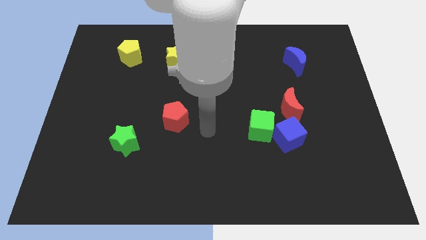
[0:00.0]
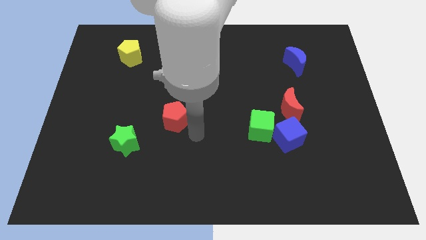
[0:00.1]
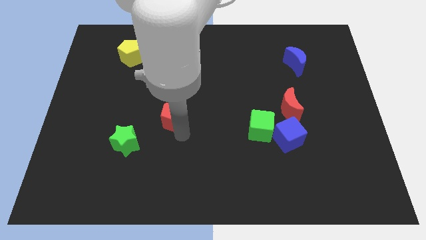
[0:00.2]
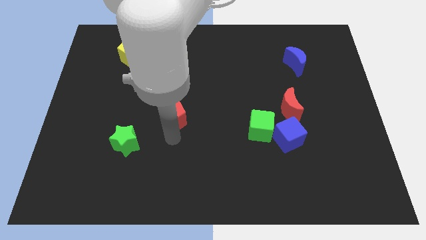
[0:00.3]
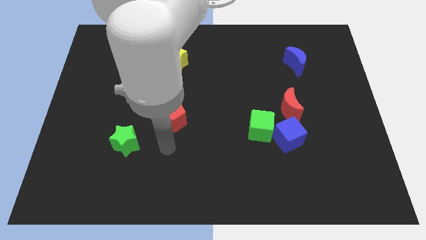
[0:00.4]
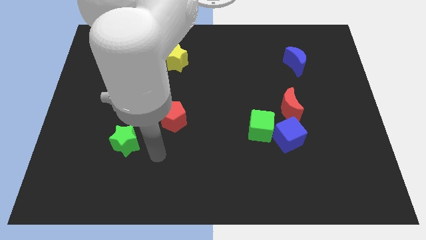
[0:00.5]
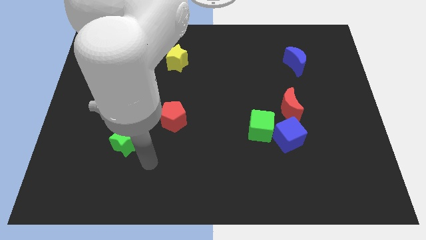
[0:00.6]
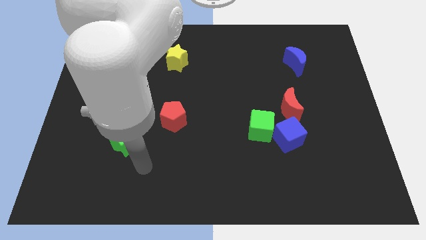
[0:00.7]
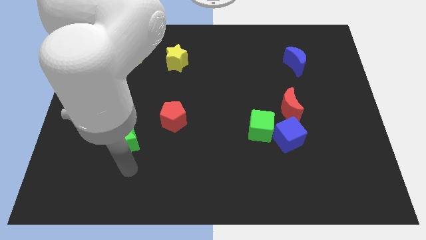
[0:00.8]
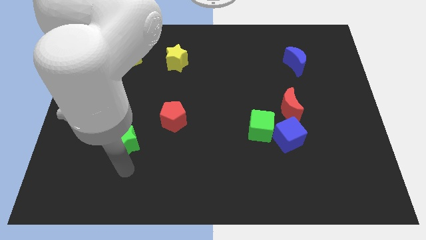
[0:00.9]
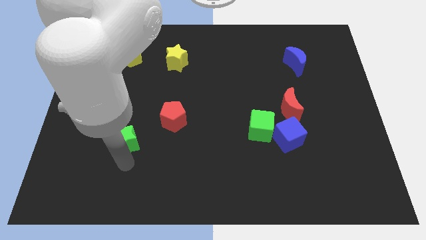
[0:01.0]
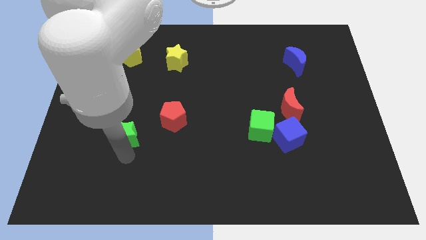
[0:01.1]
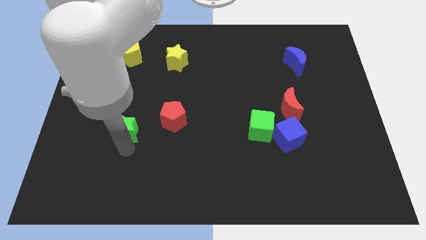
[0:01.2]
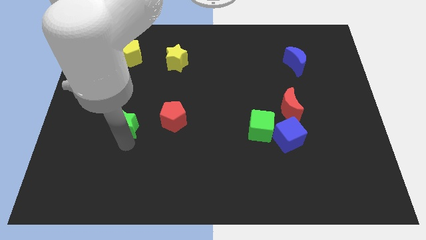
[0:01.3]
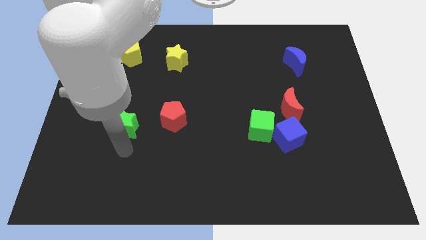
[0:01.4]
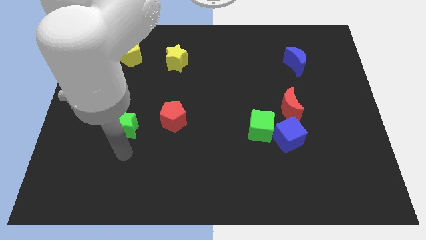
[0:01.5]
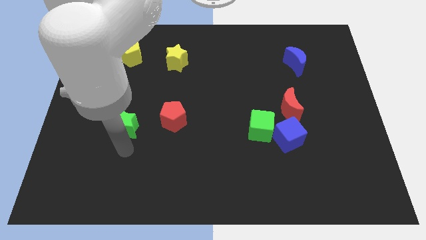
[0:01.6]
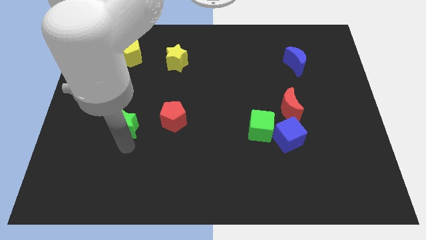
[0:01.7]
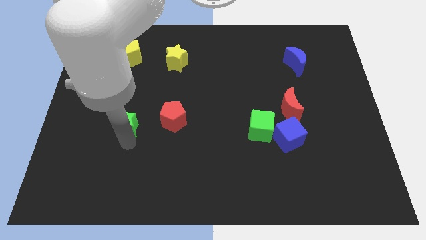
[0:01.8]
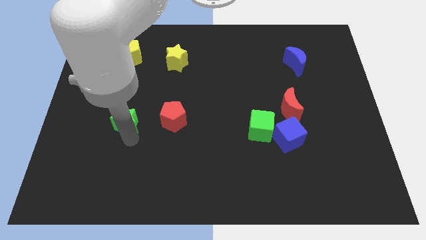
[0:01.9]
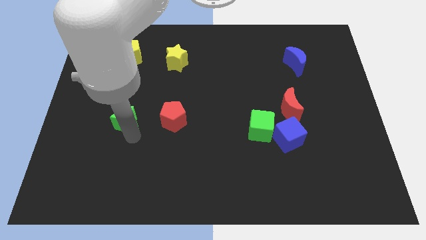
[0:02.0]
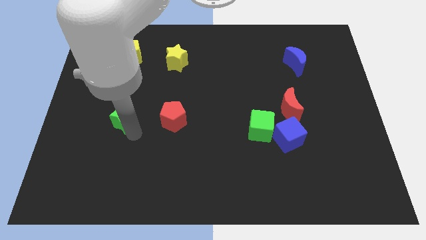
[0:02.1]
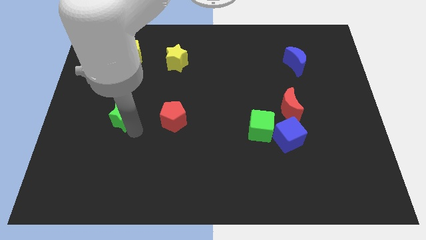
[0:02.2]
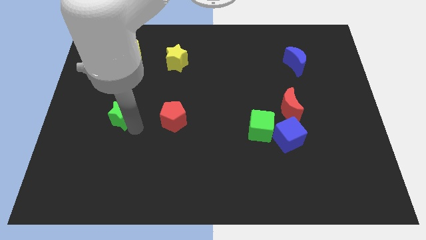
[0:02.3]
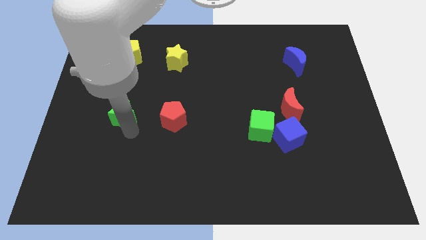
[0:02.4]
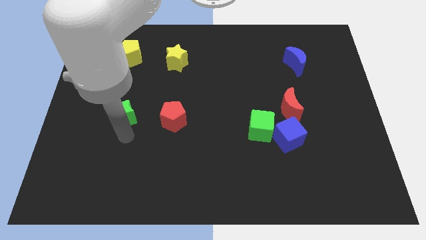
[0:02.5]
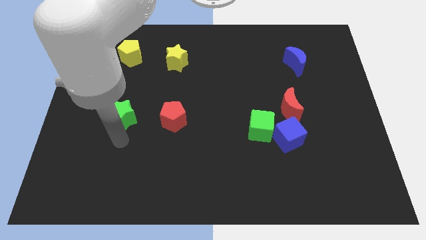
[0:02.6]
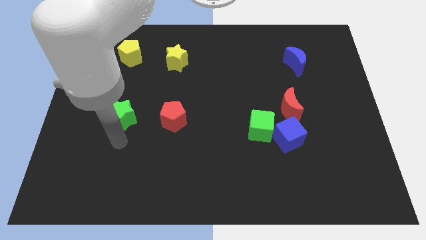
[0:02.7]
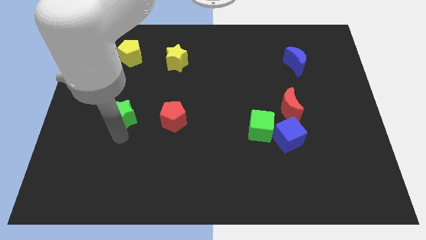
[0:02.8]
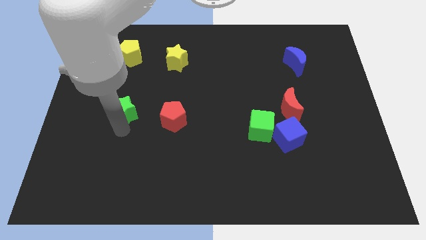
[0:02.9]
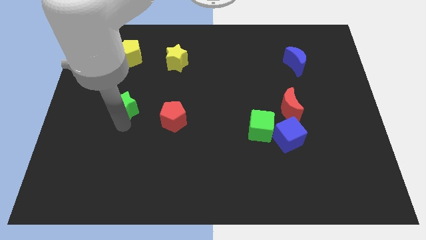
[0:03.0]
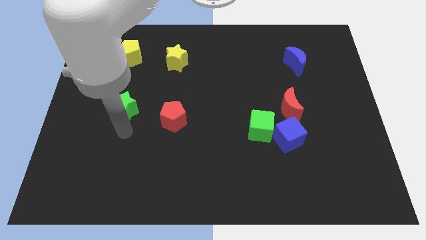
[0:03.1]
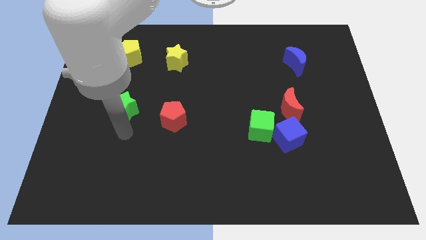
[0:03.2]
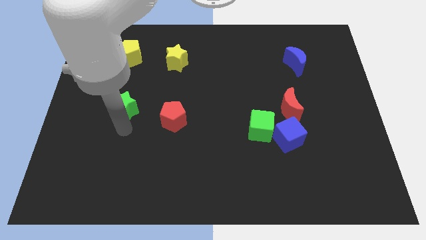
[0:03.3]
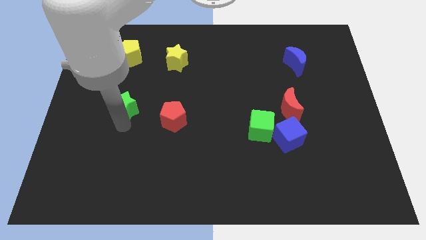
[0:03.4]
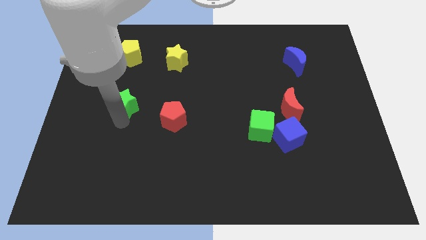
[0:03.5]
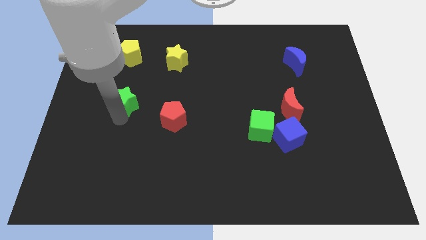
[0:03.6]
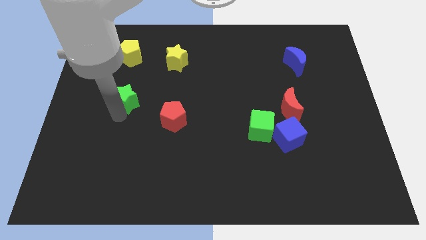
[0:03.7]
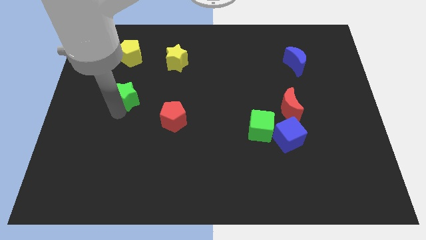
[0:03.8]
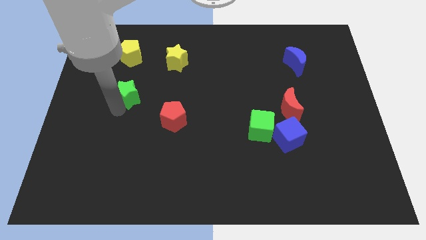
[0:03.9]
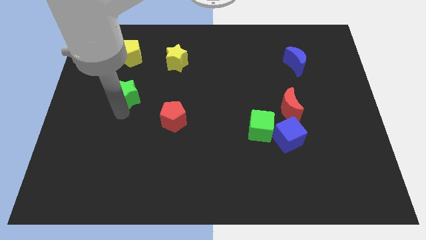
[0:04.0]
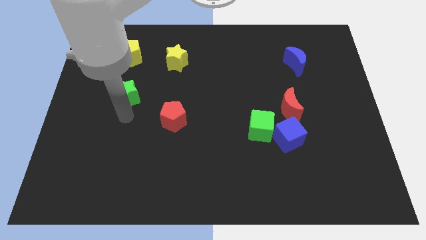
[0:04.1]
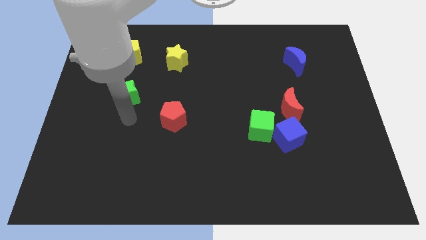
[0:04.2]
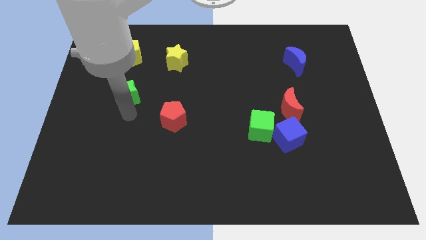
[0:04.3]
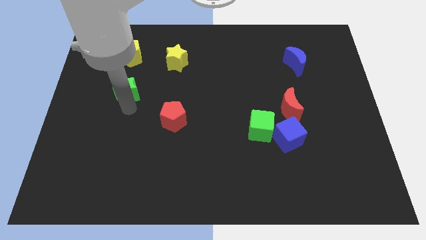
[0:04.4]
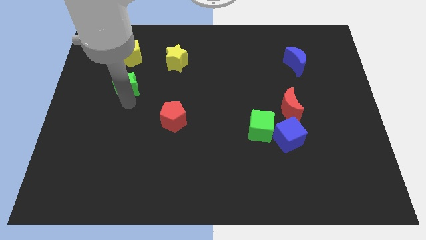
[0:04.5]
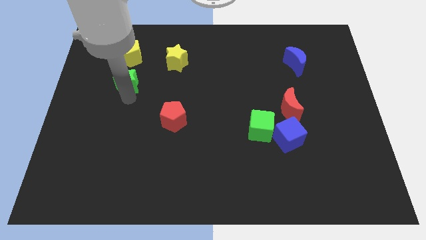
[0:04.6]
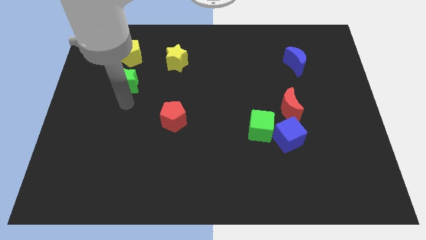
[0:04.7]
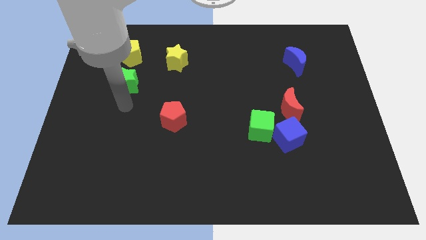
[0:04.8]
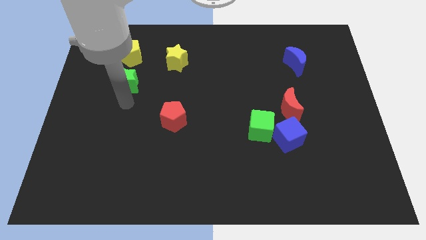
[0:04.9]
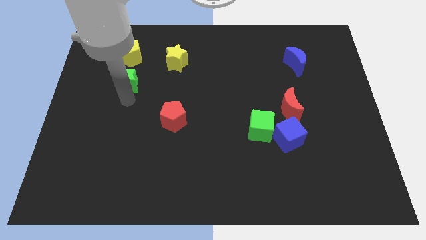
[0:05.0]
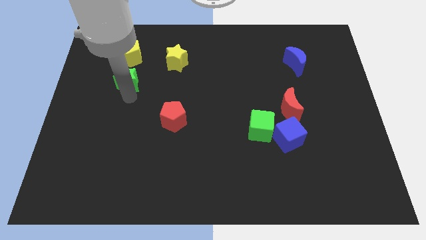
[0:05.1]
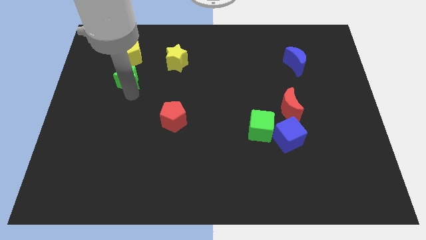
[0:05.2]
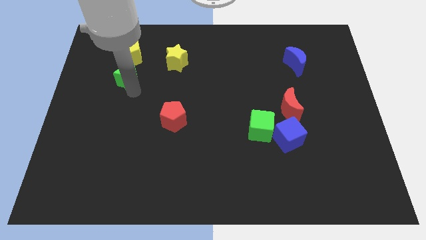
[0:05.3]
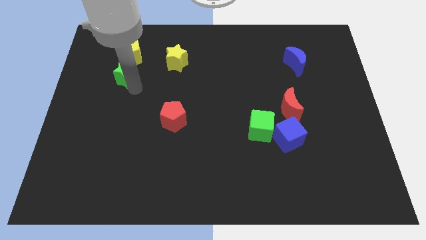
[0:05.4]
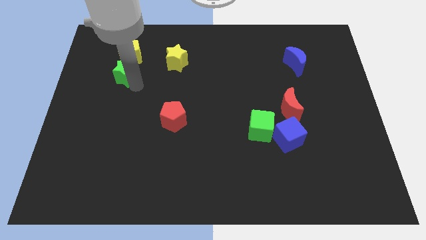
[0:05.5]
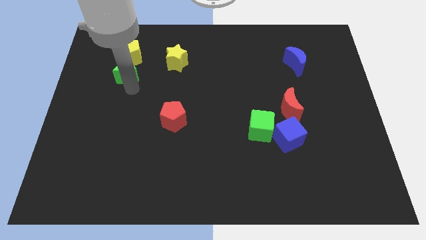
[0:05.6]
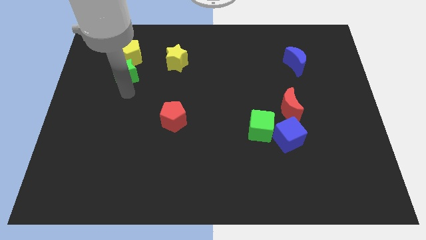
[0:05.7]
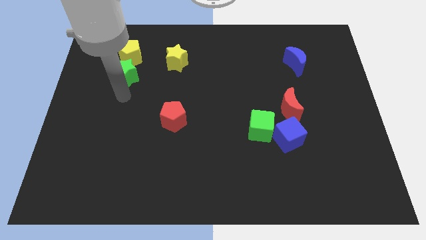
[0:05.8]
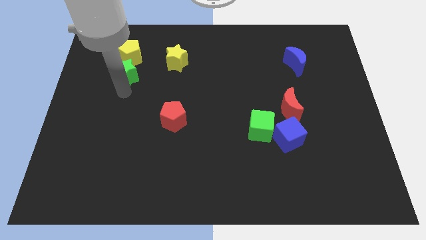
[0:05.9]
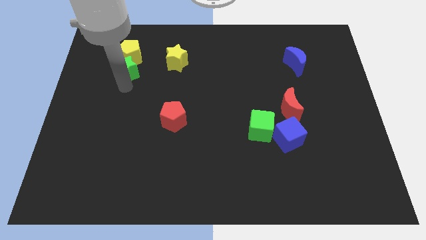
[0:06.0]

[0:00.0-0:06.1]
slide the green star close to the yellow pentagon

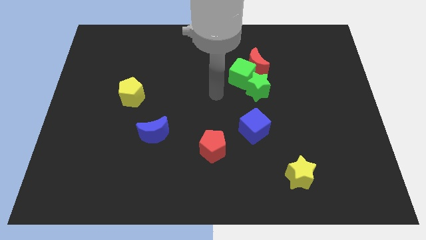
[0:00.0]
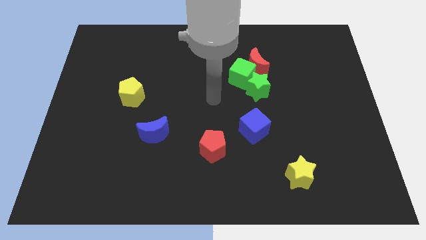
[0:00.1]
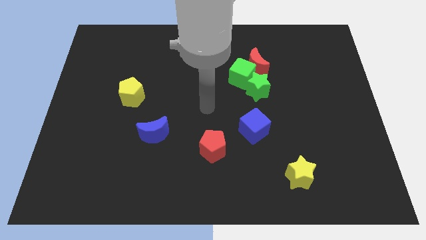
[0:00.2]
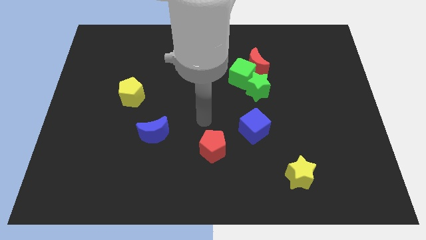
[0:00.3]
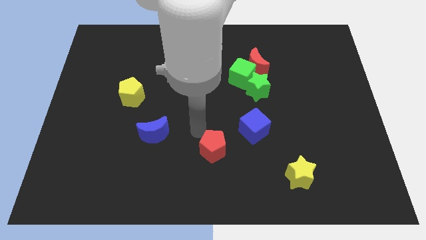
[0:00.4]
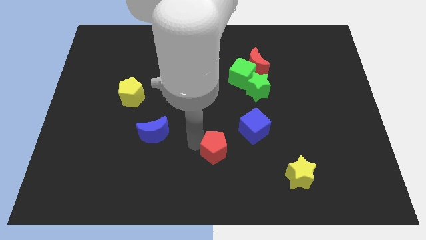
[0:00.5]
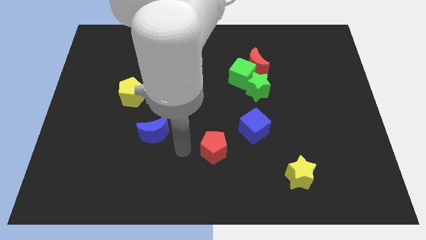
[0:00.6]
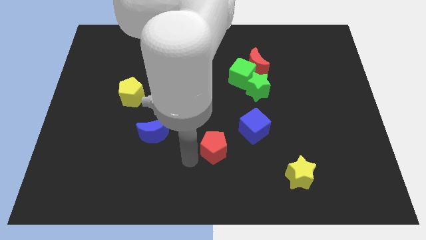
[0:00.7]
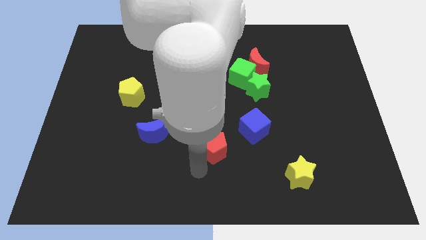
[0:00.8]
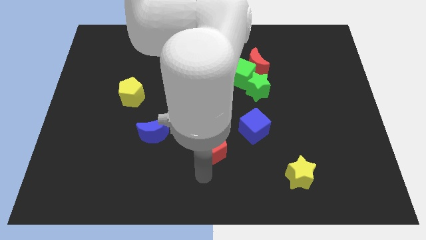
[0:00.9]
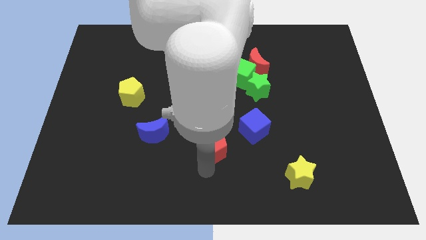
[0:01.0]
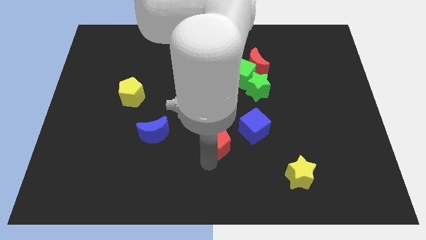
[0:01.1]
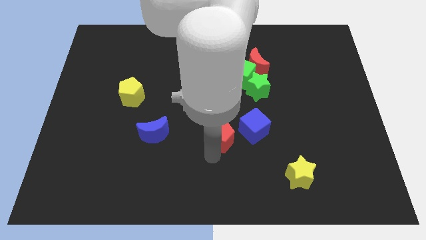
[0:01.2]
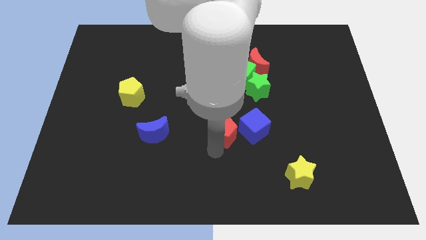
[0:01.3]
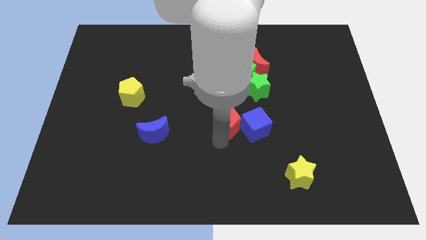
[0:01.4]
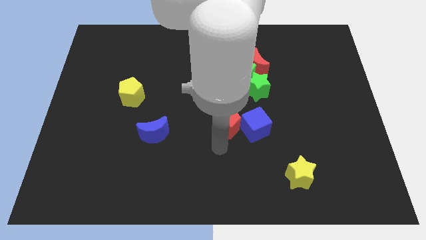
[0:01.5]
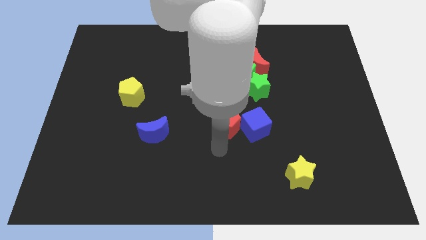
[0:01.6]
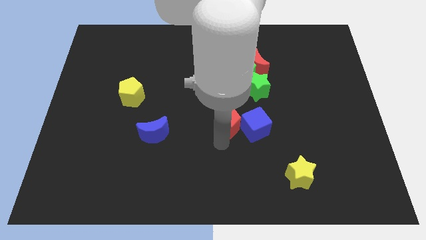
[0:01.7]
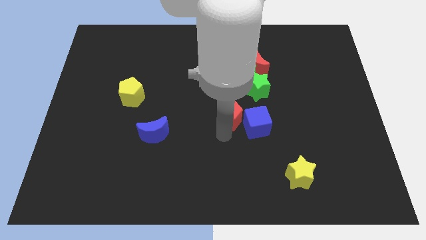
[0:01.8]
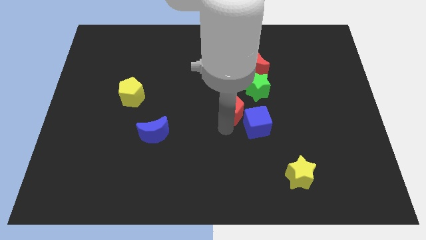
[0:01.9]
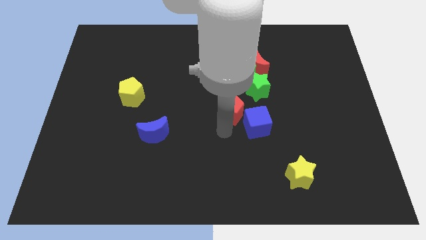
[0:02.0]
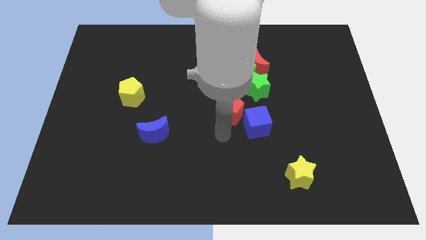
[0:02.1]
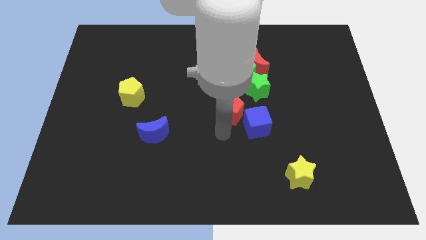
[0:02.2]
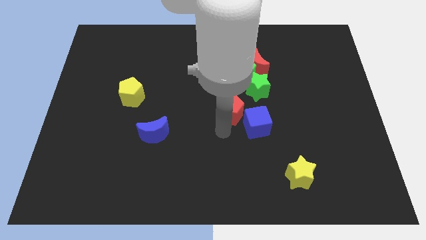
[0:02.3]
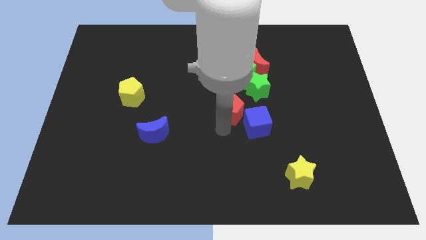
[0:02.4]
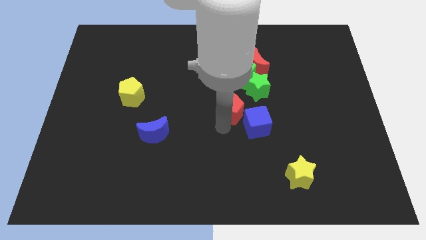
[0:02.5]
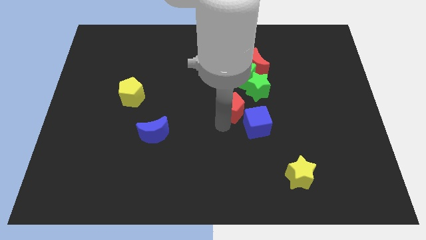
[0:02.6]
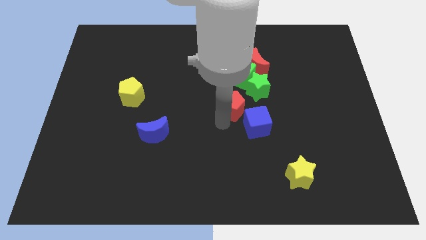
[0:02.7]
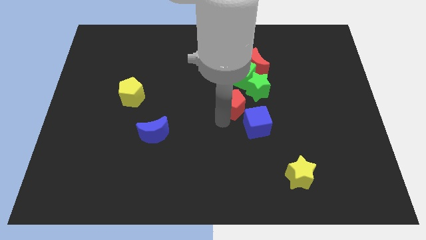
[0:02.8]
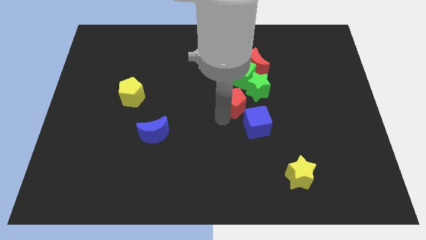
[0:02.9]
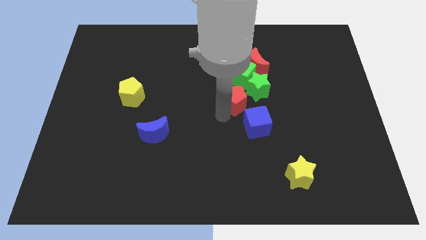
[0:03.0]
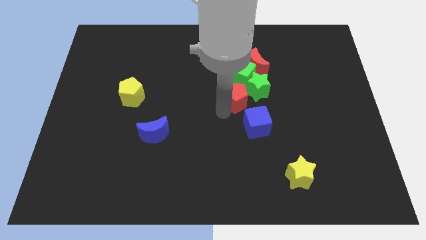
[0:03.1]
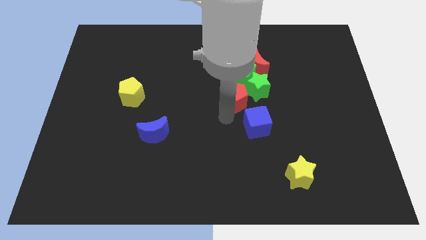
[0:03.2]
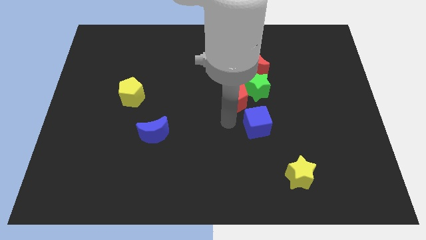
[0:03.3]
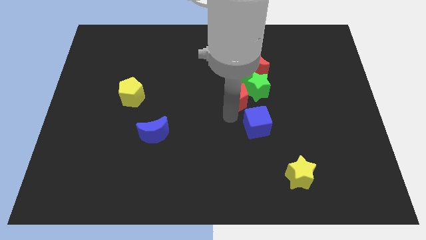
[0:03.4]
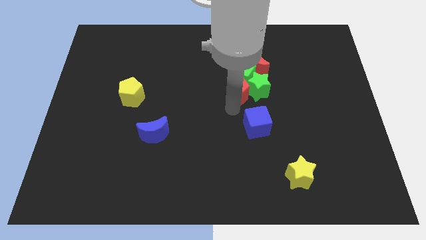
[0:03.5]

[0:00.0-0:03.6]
move the red pentagon next to the green cube
